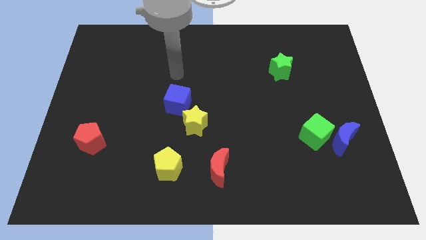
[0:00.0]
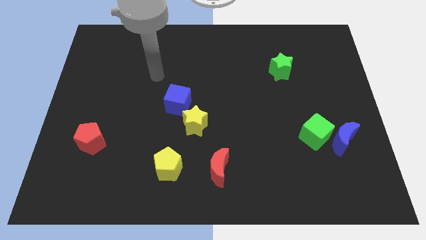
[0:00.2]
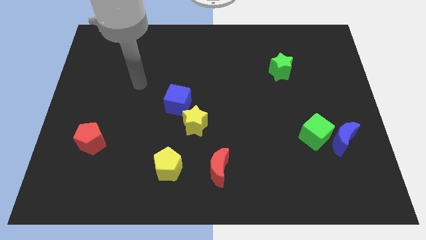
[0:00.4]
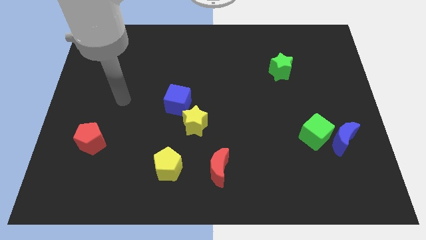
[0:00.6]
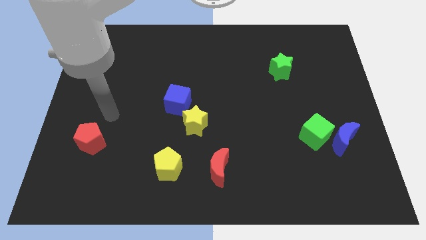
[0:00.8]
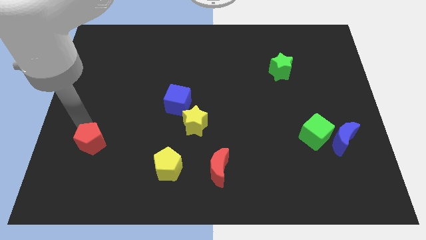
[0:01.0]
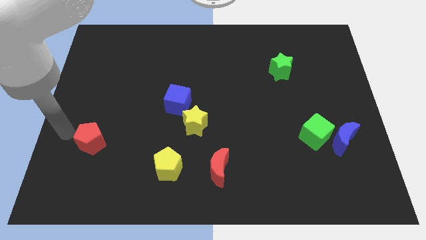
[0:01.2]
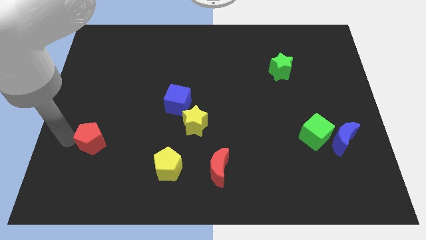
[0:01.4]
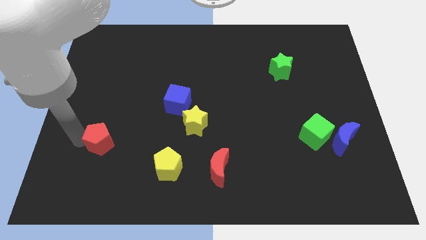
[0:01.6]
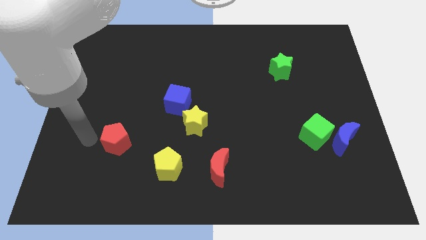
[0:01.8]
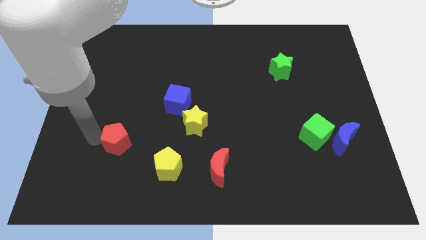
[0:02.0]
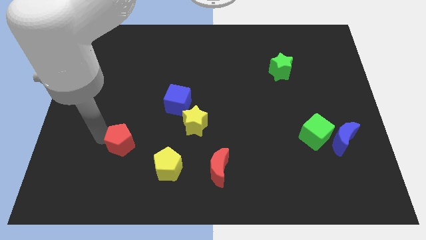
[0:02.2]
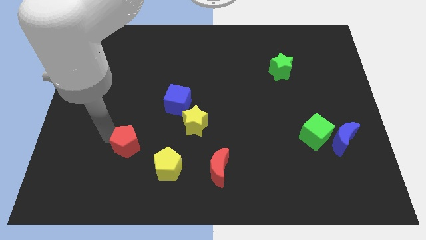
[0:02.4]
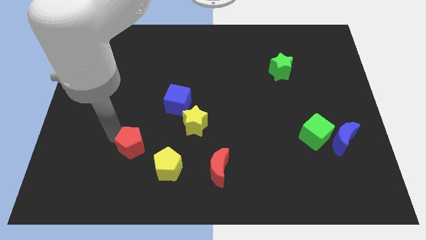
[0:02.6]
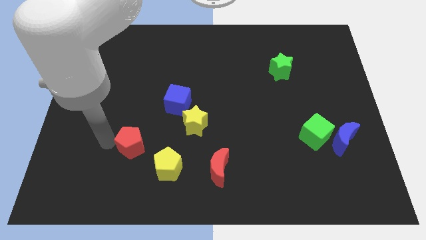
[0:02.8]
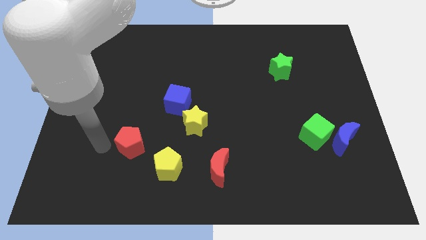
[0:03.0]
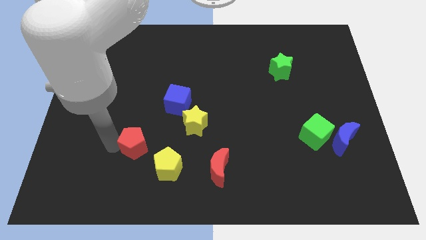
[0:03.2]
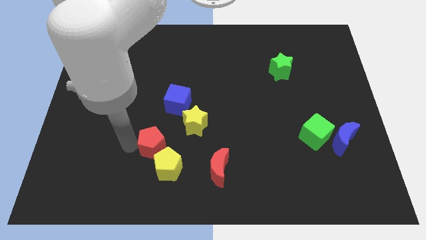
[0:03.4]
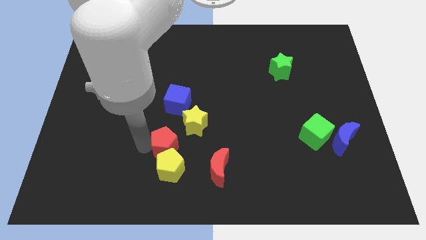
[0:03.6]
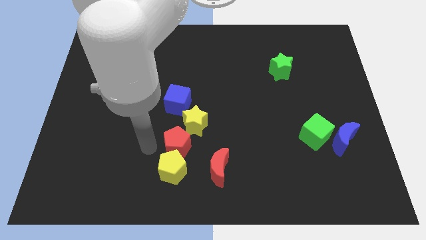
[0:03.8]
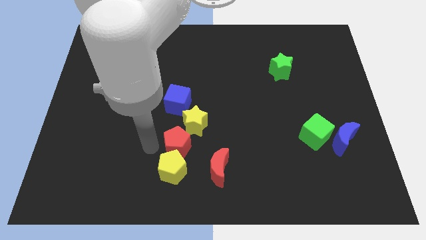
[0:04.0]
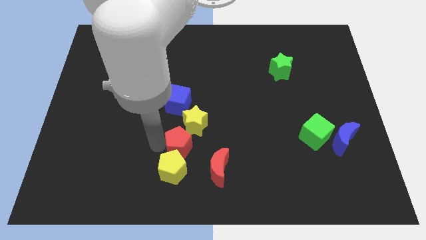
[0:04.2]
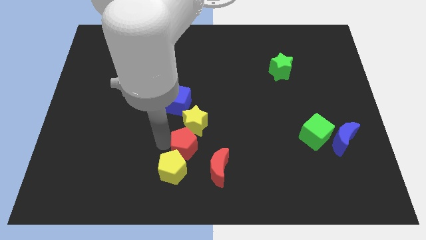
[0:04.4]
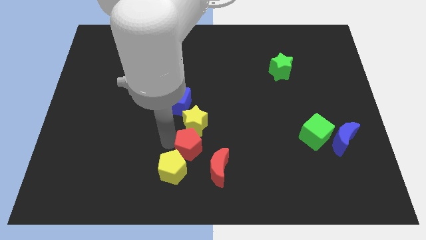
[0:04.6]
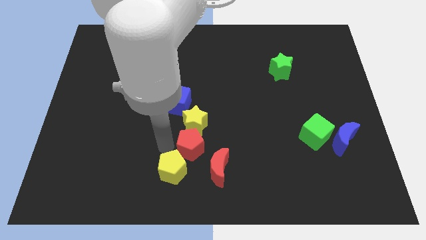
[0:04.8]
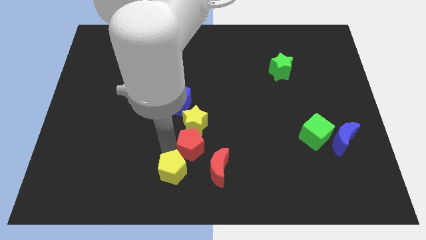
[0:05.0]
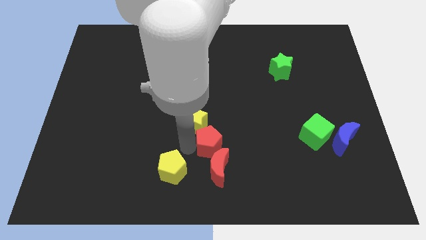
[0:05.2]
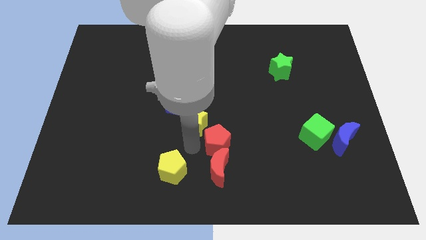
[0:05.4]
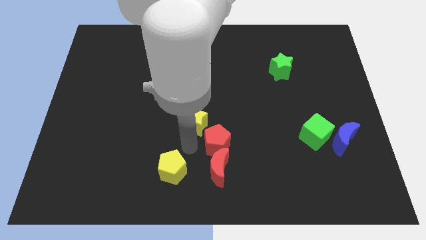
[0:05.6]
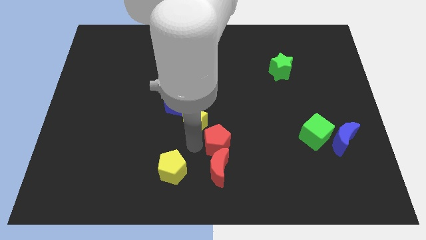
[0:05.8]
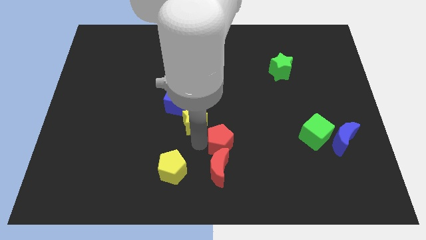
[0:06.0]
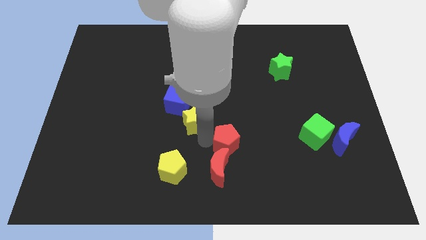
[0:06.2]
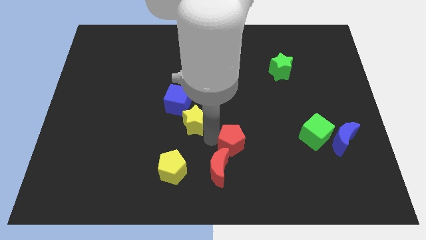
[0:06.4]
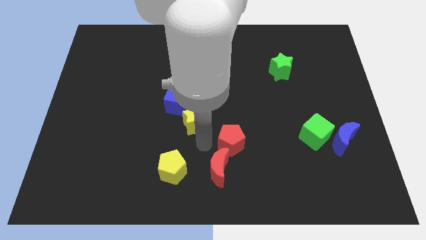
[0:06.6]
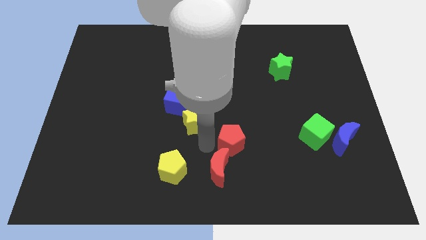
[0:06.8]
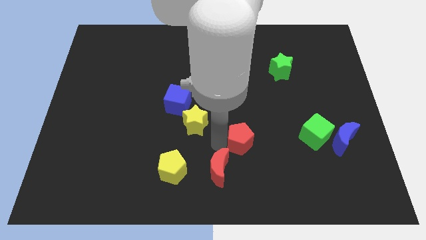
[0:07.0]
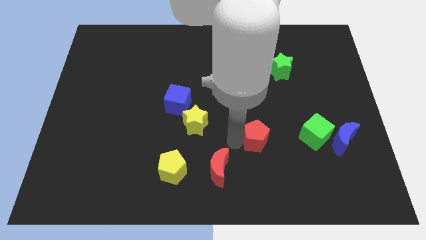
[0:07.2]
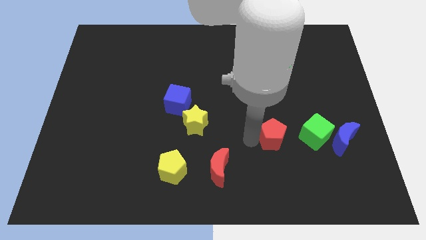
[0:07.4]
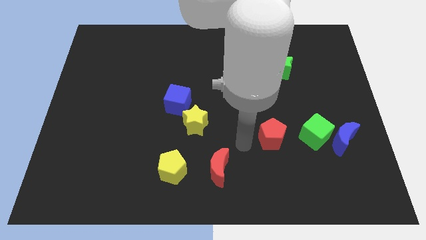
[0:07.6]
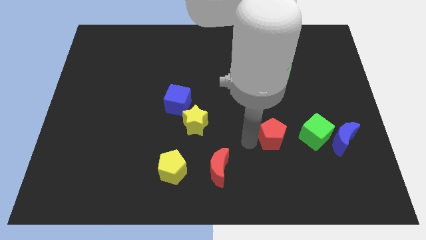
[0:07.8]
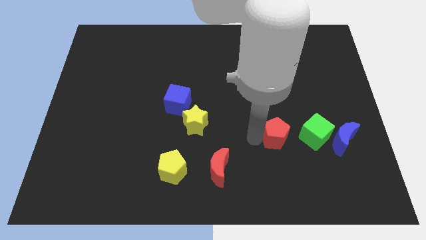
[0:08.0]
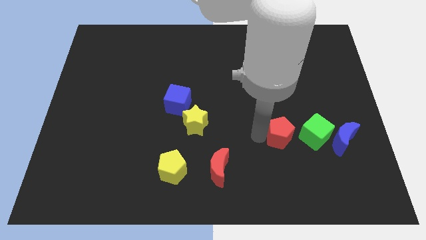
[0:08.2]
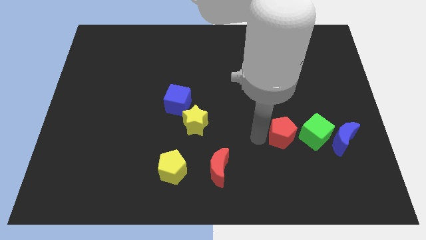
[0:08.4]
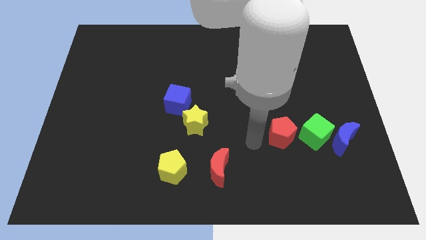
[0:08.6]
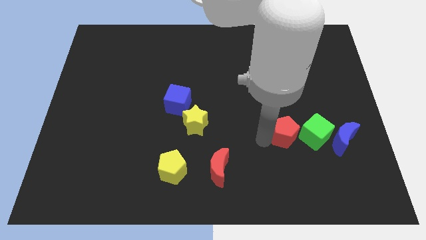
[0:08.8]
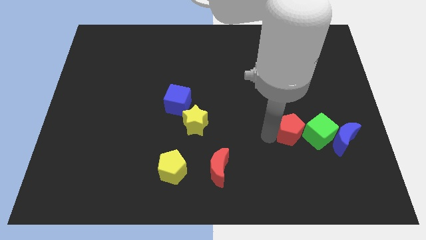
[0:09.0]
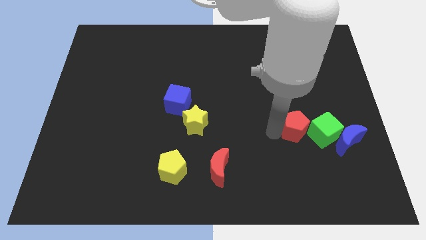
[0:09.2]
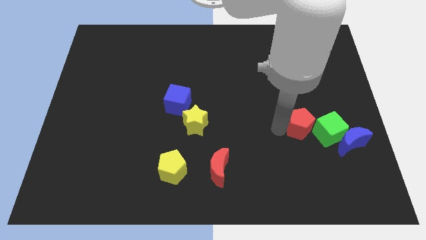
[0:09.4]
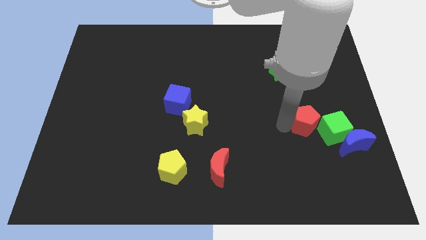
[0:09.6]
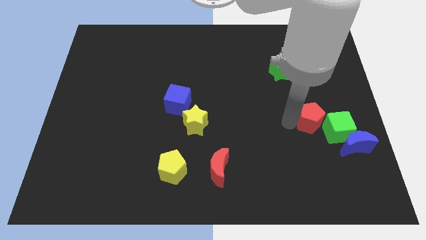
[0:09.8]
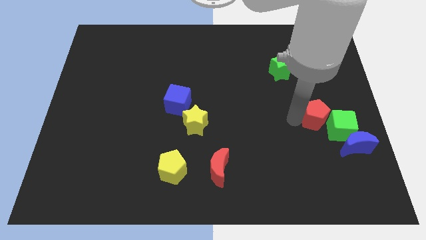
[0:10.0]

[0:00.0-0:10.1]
slide the red pentagon next to the green cube

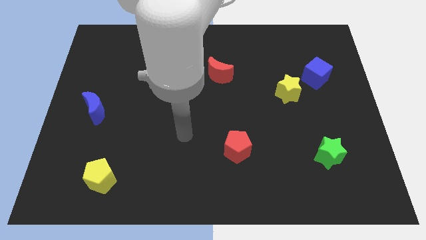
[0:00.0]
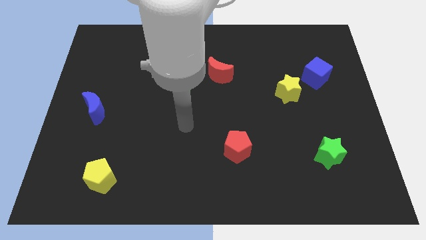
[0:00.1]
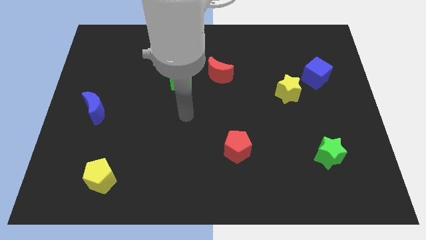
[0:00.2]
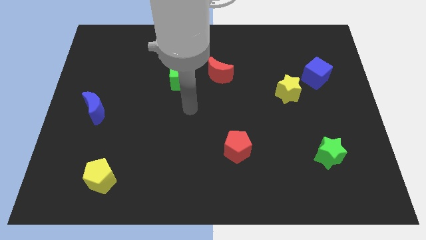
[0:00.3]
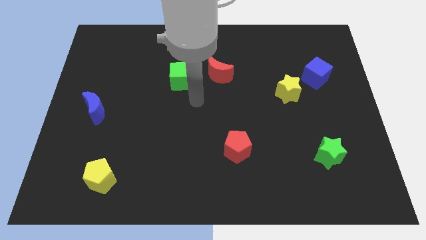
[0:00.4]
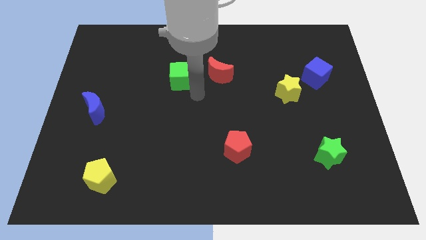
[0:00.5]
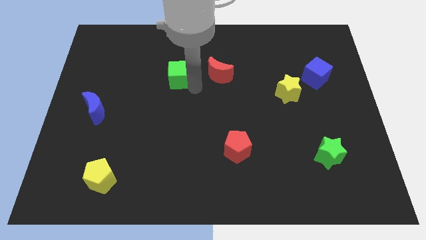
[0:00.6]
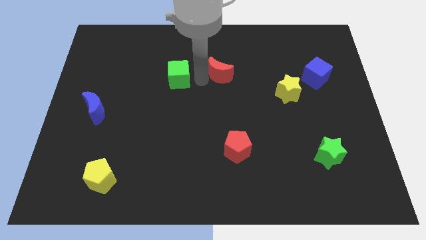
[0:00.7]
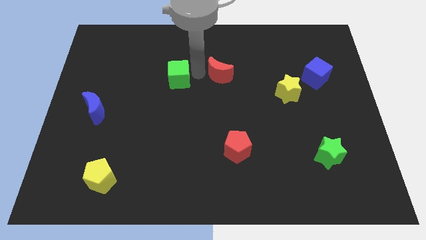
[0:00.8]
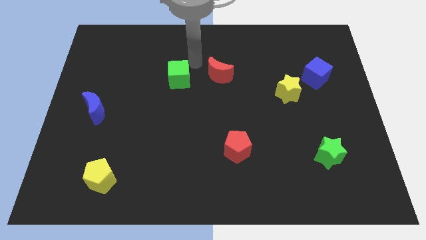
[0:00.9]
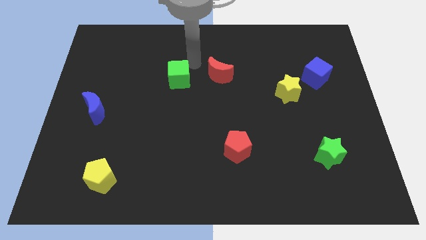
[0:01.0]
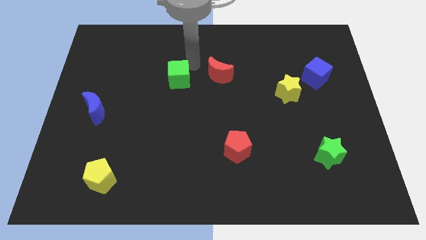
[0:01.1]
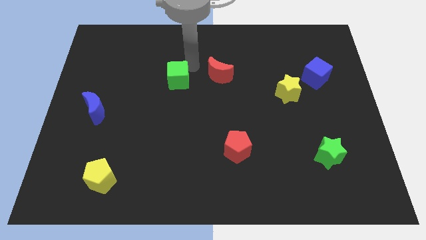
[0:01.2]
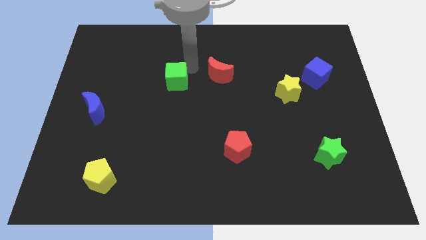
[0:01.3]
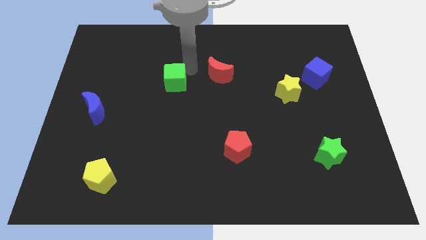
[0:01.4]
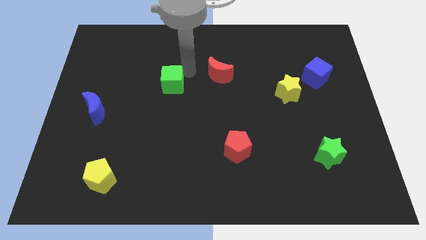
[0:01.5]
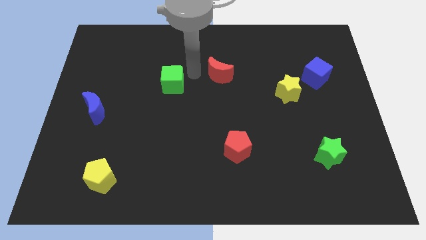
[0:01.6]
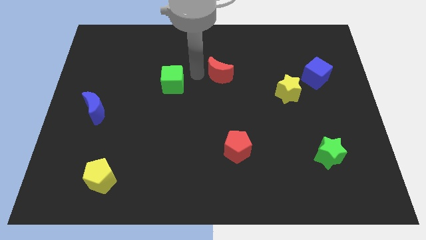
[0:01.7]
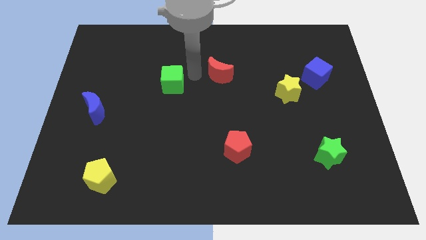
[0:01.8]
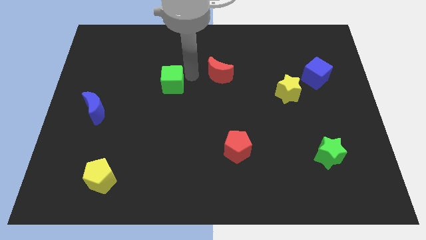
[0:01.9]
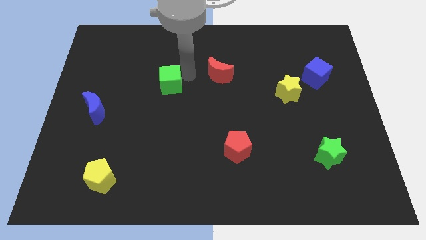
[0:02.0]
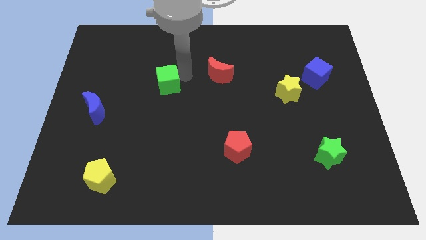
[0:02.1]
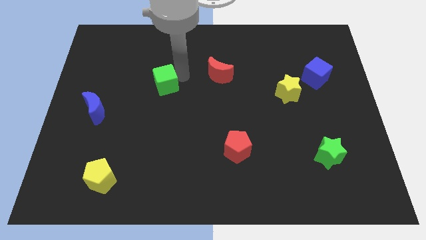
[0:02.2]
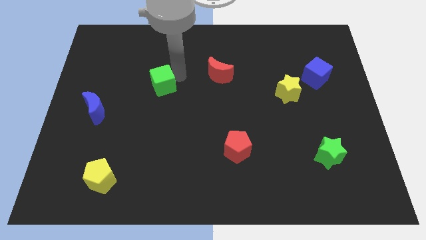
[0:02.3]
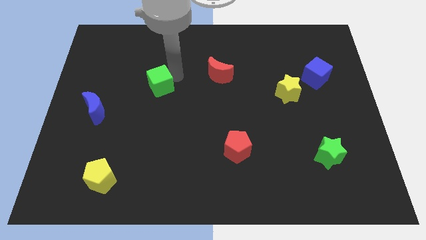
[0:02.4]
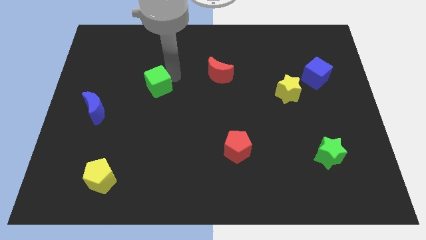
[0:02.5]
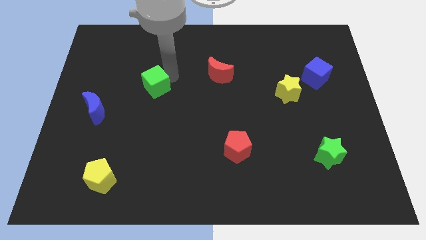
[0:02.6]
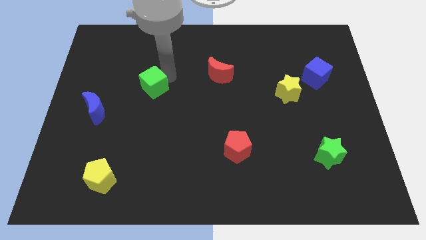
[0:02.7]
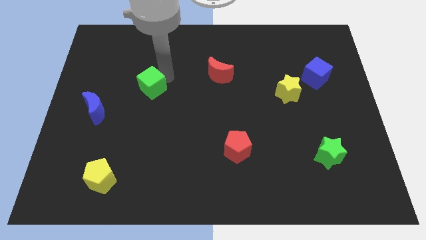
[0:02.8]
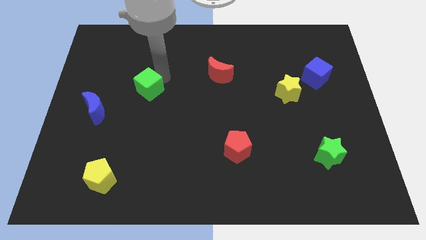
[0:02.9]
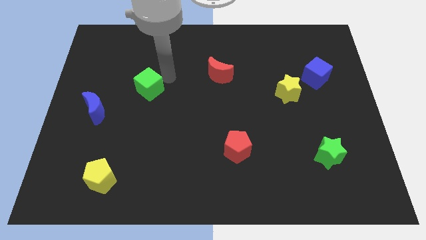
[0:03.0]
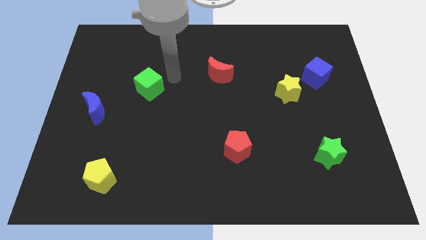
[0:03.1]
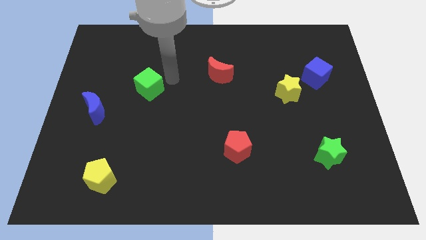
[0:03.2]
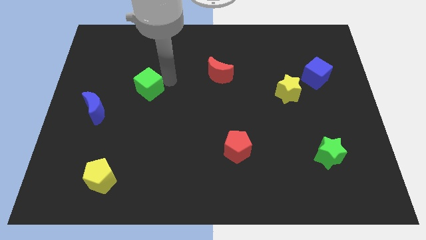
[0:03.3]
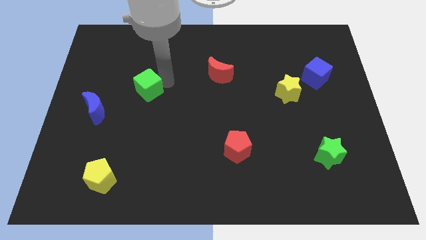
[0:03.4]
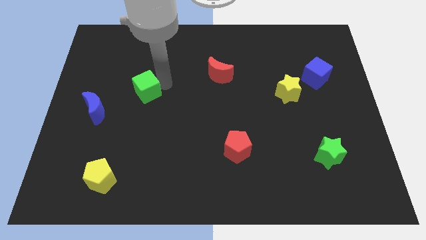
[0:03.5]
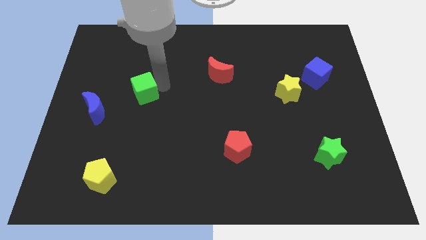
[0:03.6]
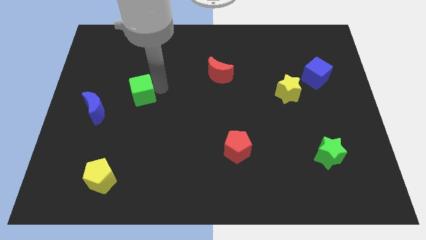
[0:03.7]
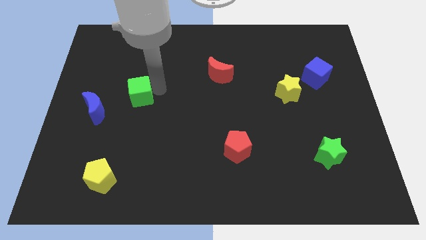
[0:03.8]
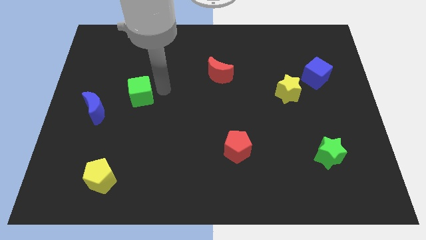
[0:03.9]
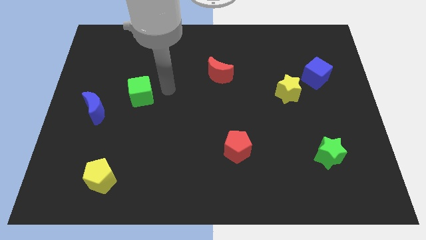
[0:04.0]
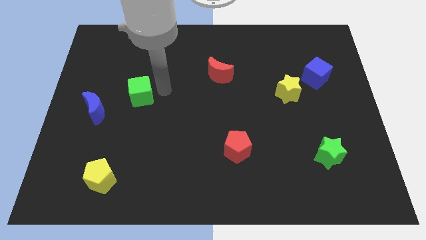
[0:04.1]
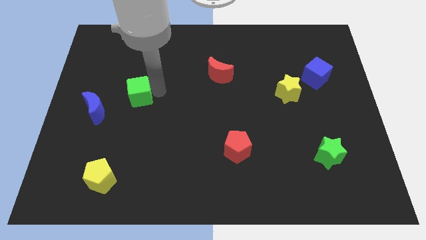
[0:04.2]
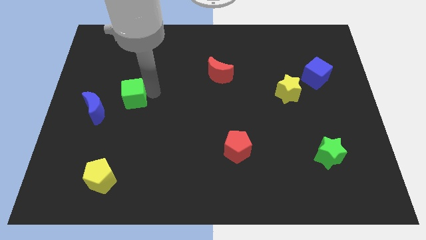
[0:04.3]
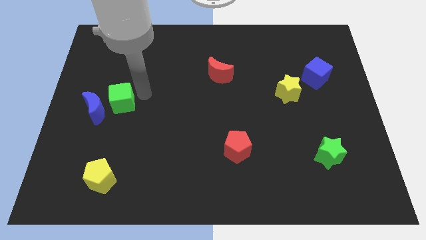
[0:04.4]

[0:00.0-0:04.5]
move the green cube close to the blue moon
